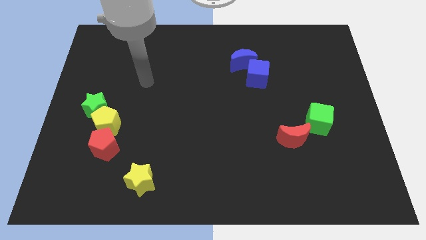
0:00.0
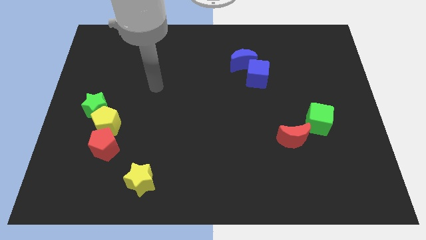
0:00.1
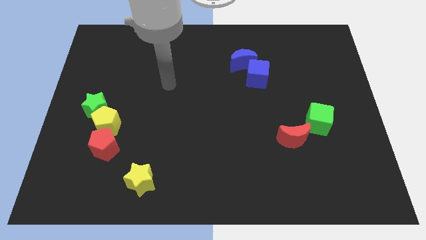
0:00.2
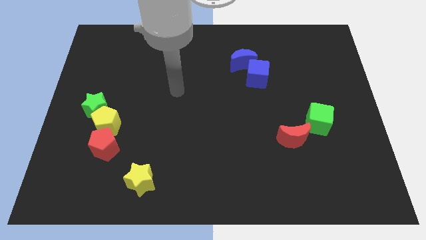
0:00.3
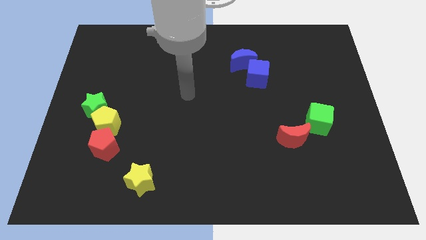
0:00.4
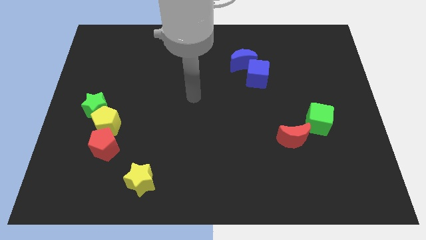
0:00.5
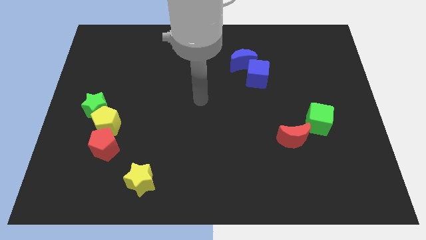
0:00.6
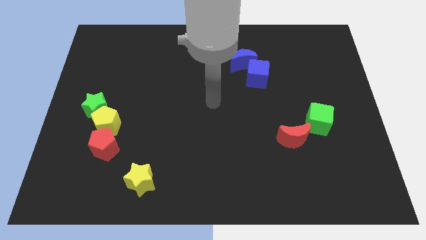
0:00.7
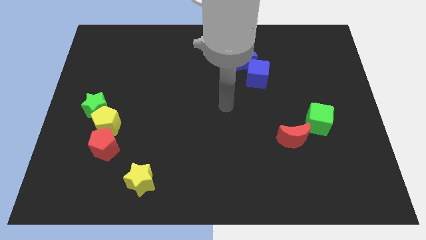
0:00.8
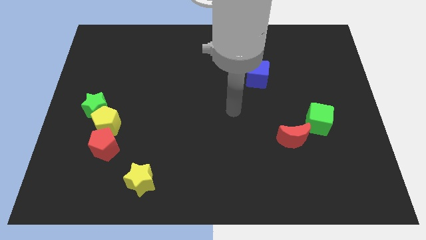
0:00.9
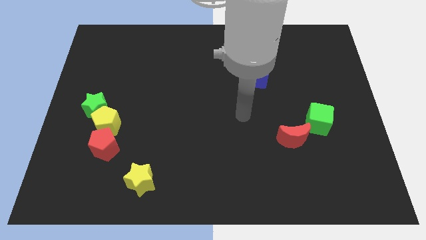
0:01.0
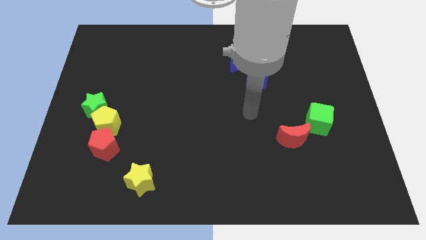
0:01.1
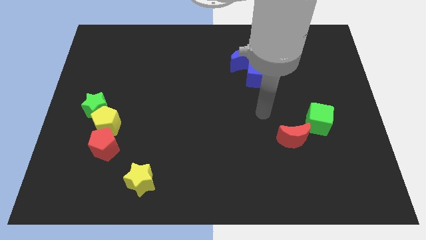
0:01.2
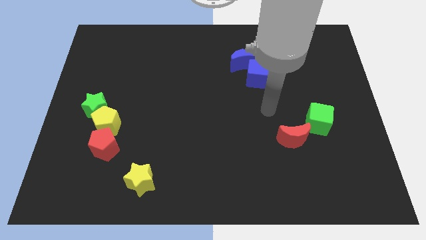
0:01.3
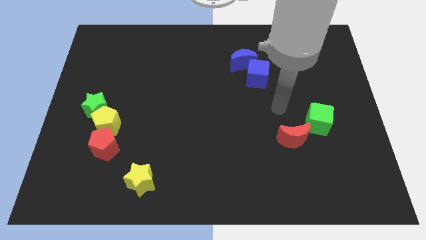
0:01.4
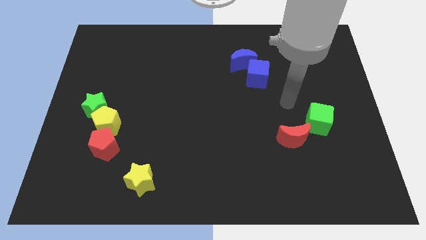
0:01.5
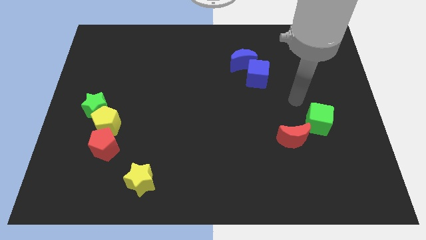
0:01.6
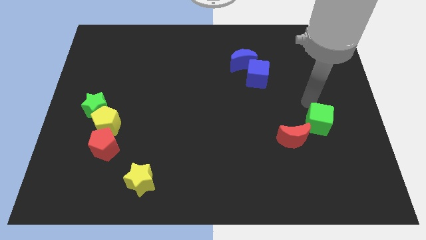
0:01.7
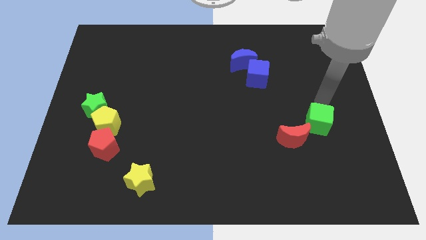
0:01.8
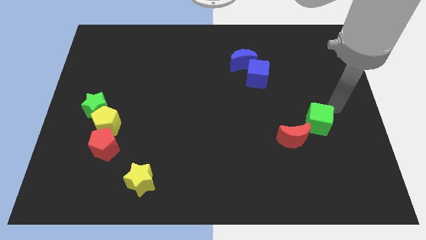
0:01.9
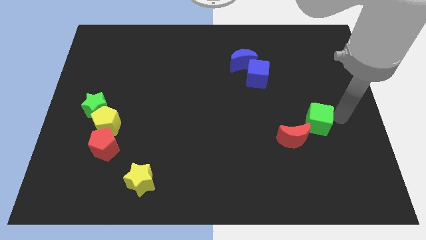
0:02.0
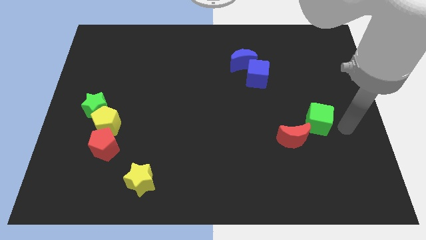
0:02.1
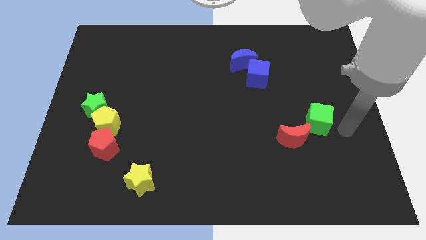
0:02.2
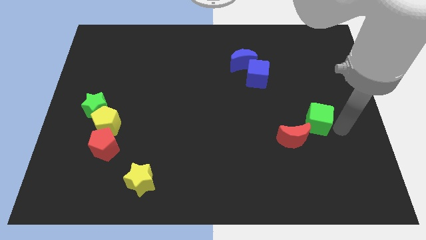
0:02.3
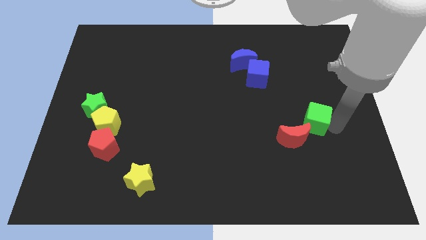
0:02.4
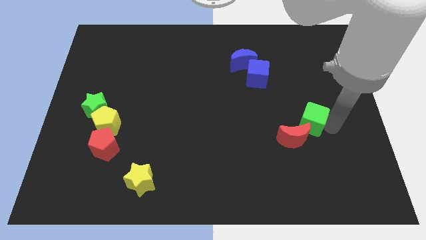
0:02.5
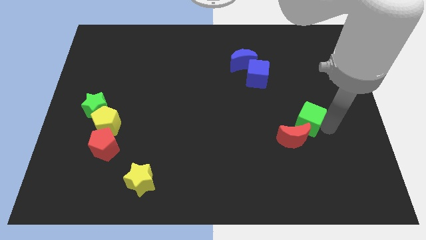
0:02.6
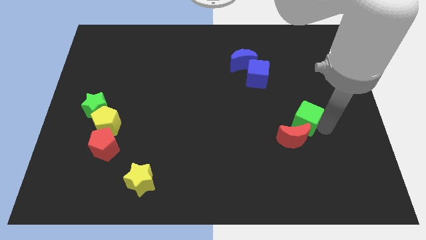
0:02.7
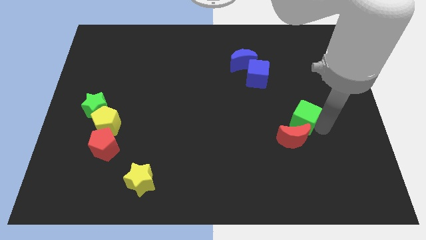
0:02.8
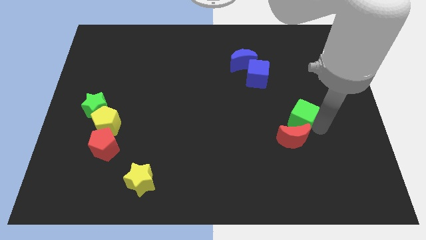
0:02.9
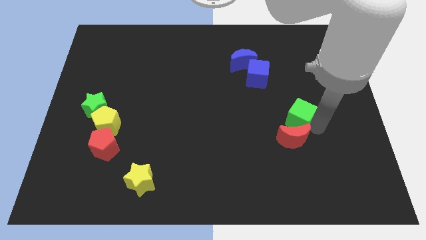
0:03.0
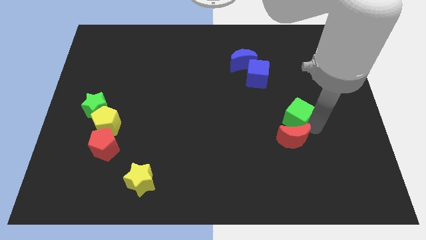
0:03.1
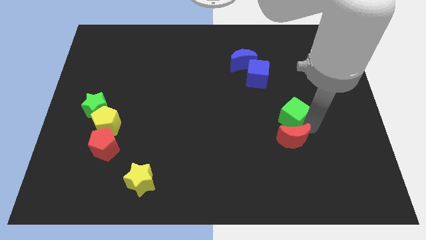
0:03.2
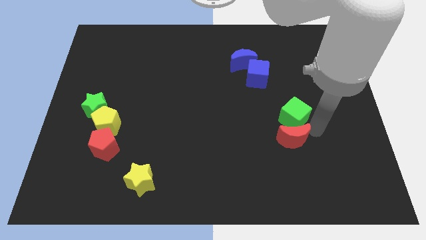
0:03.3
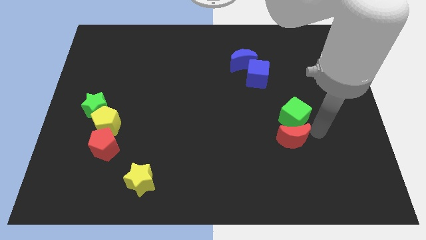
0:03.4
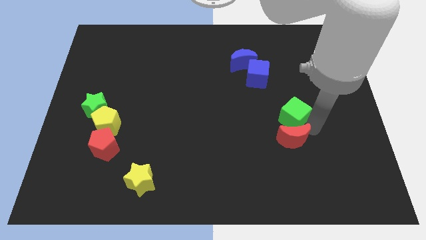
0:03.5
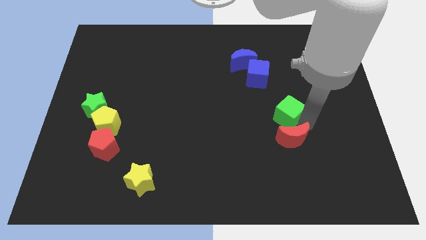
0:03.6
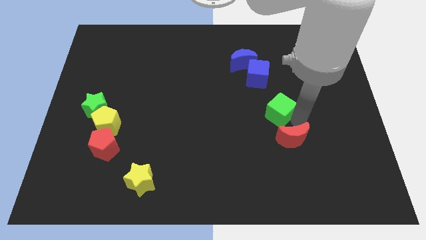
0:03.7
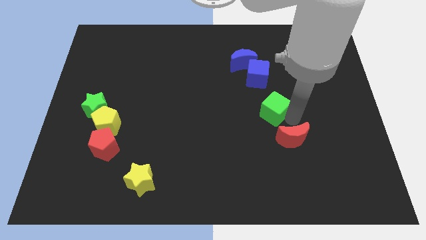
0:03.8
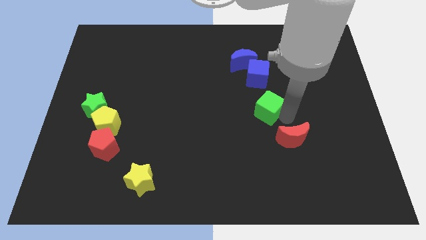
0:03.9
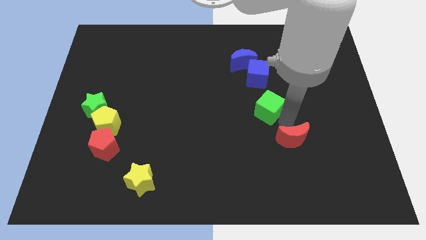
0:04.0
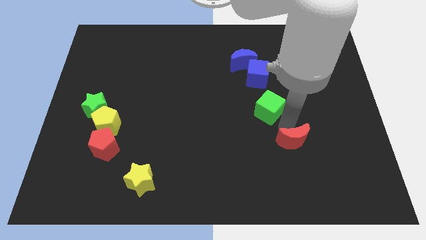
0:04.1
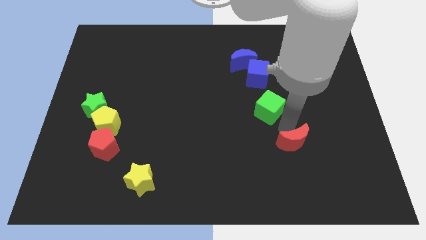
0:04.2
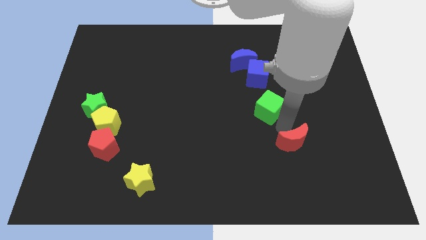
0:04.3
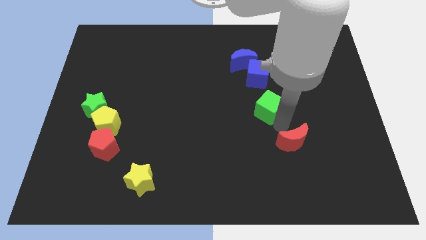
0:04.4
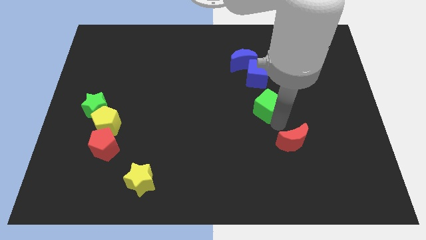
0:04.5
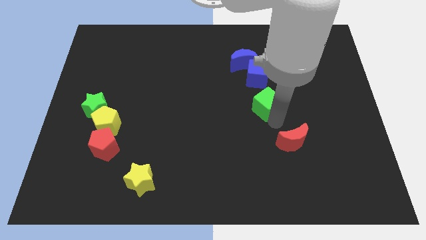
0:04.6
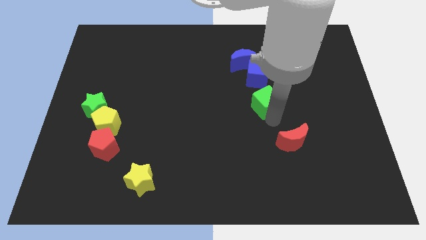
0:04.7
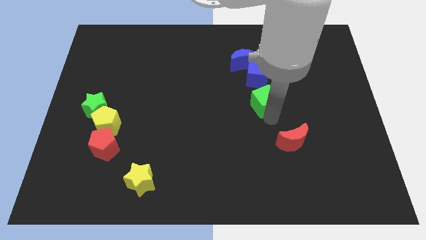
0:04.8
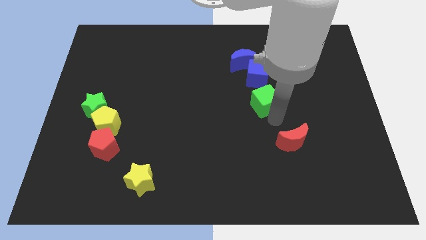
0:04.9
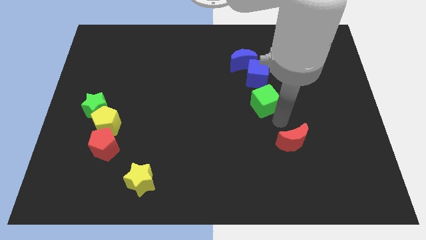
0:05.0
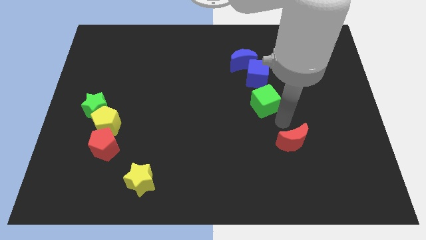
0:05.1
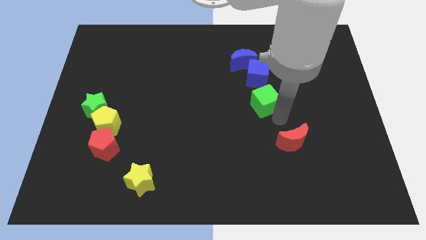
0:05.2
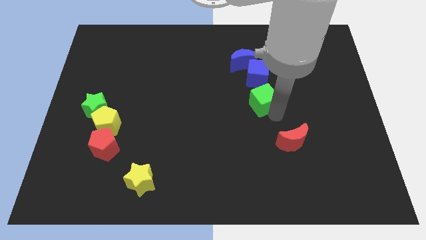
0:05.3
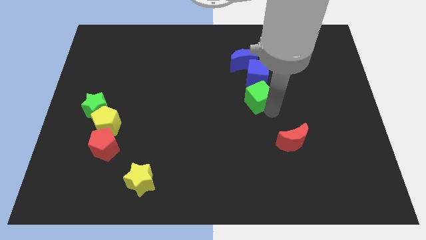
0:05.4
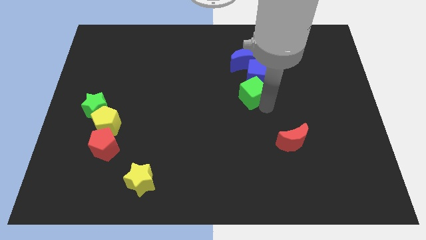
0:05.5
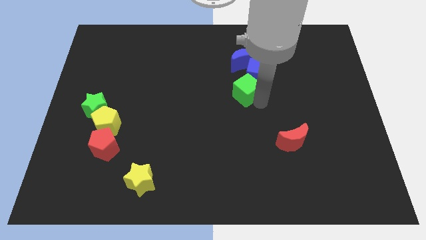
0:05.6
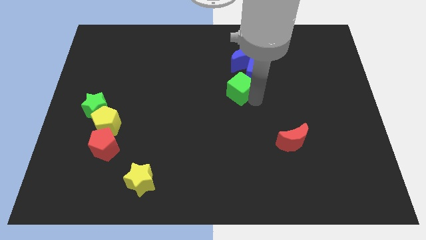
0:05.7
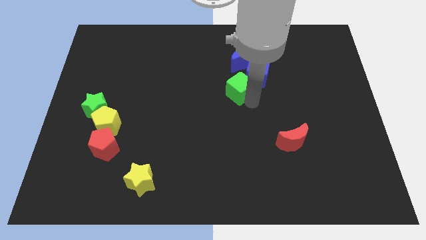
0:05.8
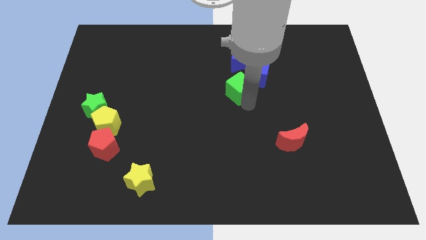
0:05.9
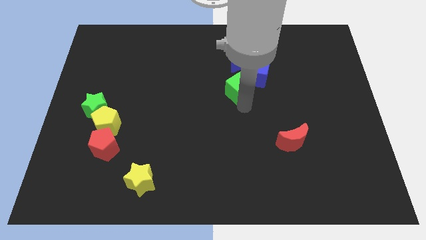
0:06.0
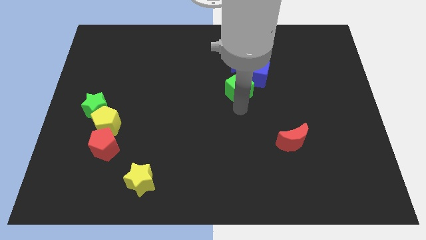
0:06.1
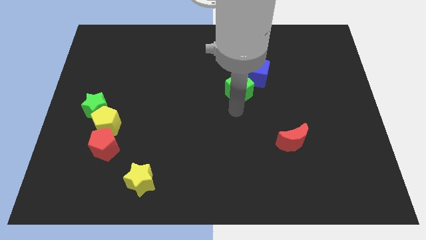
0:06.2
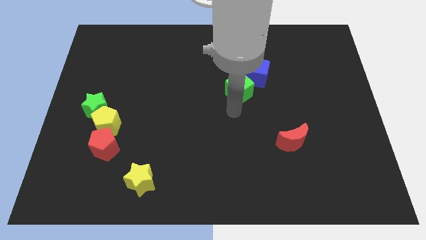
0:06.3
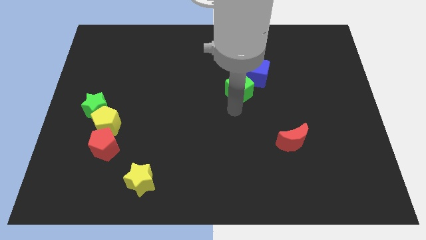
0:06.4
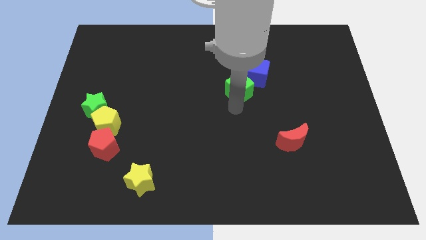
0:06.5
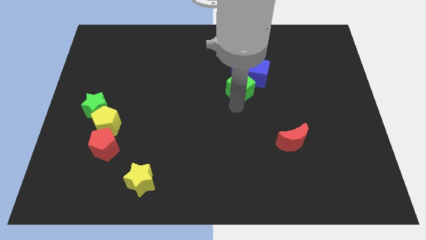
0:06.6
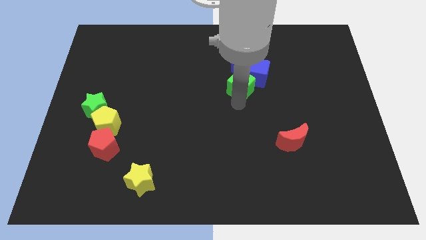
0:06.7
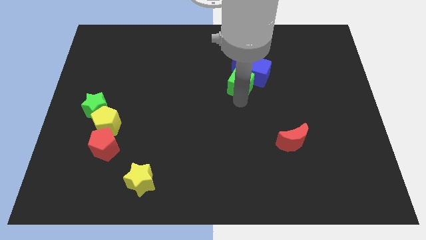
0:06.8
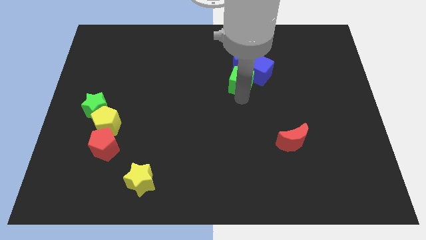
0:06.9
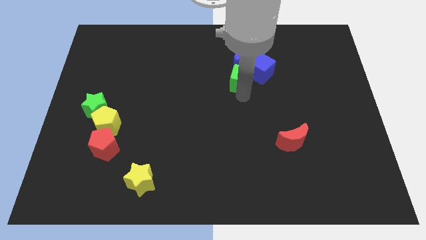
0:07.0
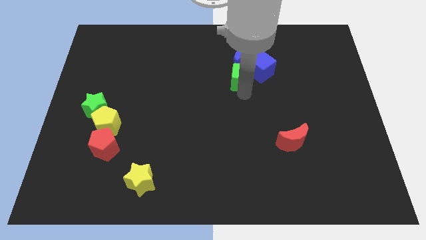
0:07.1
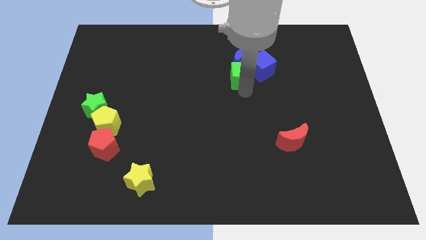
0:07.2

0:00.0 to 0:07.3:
push the green cube close to the blue moon

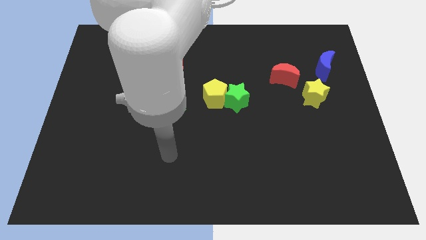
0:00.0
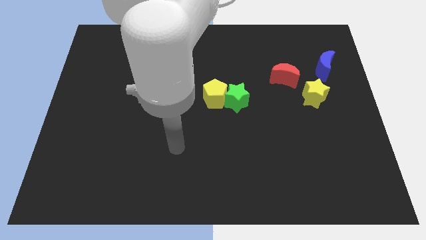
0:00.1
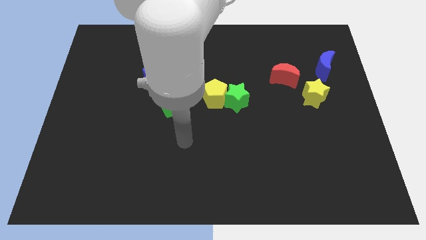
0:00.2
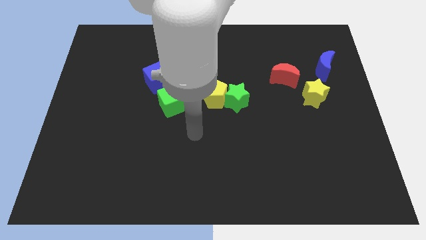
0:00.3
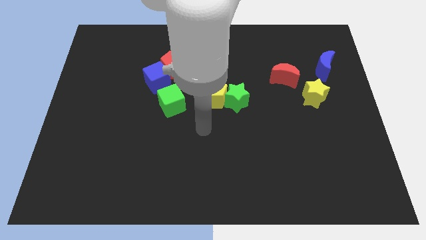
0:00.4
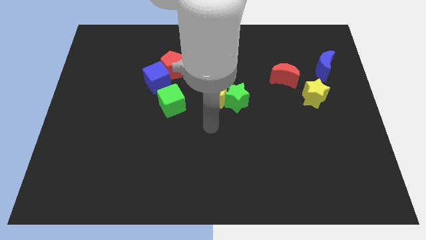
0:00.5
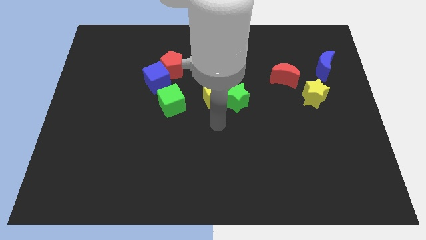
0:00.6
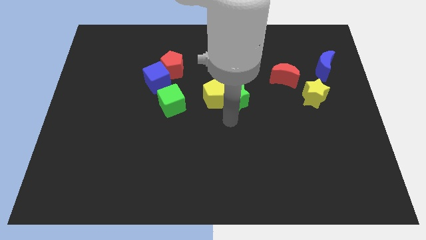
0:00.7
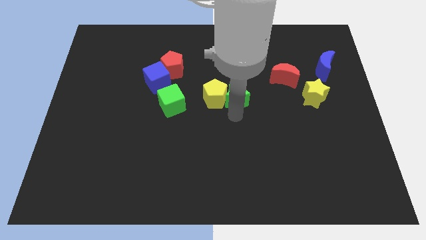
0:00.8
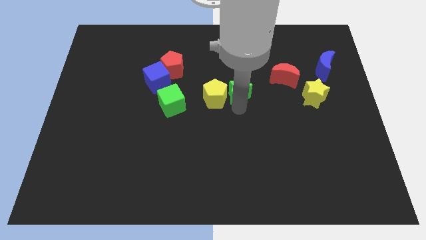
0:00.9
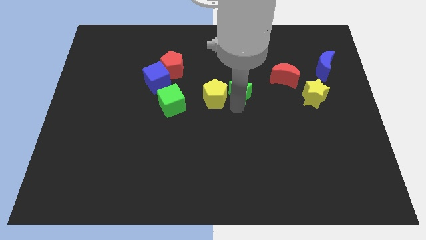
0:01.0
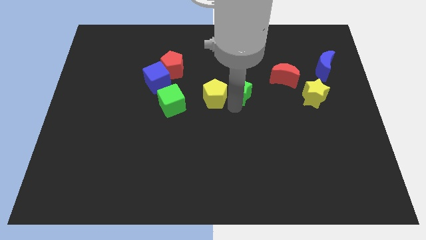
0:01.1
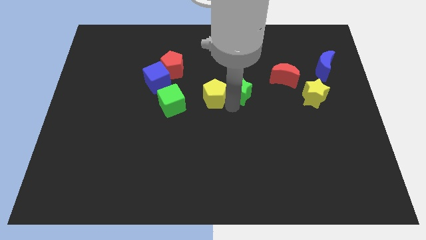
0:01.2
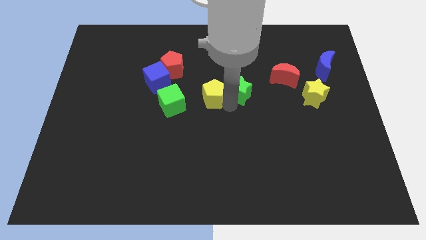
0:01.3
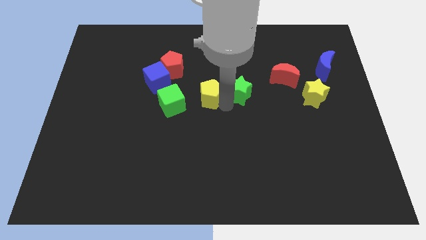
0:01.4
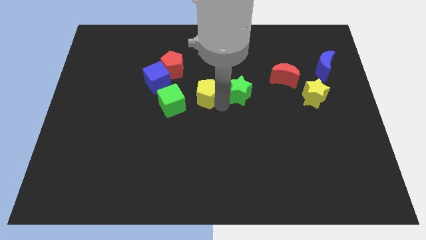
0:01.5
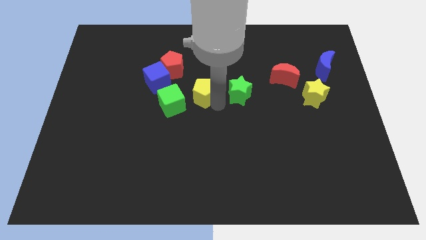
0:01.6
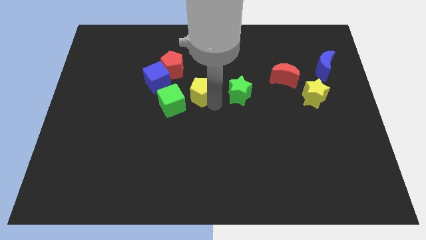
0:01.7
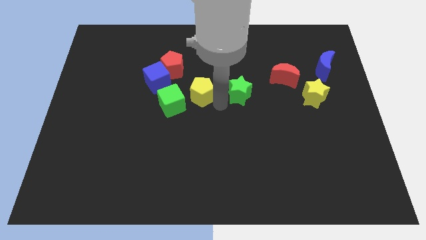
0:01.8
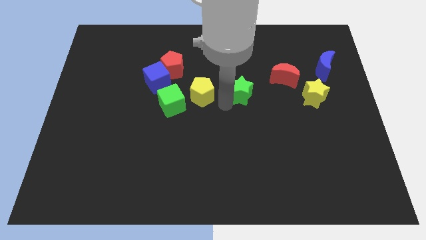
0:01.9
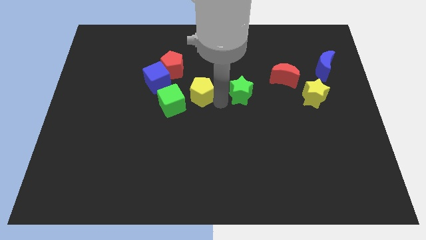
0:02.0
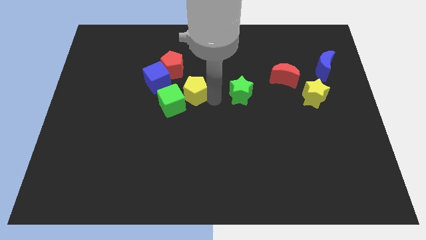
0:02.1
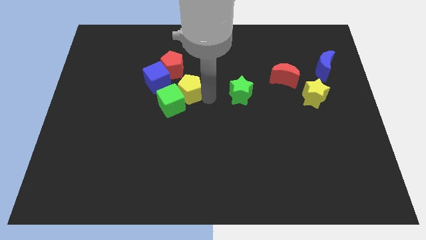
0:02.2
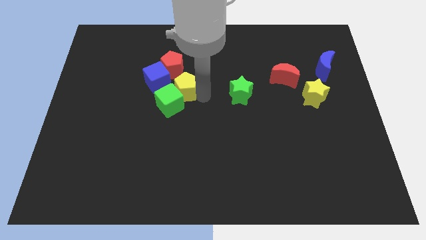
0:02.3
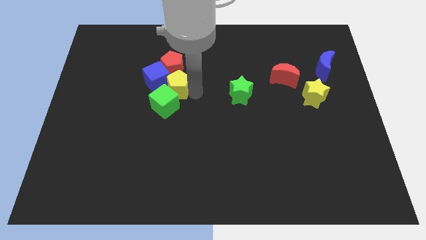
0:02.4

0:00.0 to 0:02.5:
slide the yellow pentagon to the blue cube
